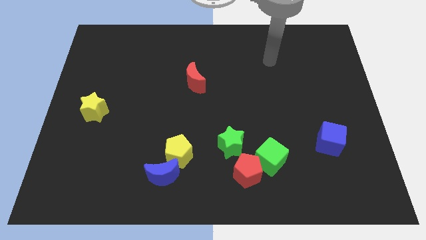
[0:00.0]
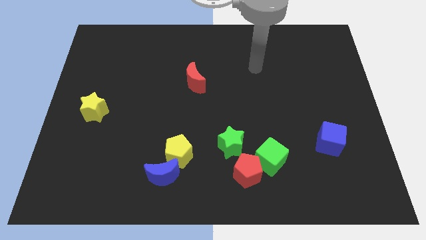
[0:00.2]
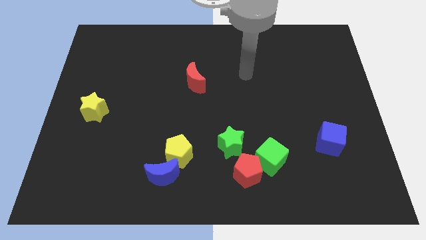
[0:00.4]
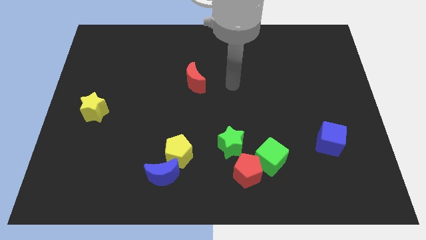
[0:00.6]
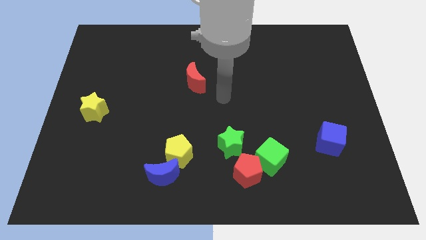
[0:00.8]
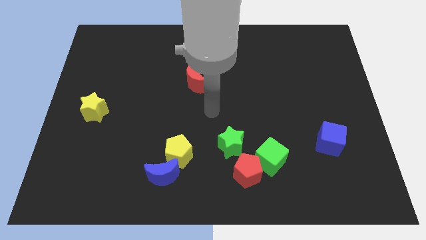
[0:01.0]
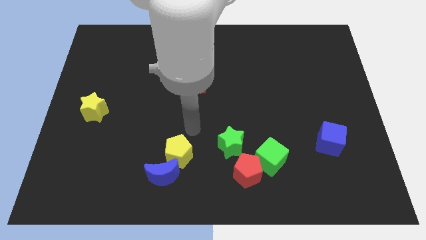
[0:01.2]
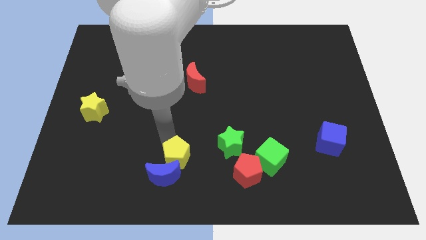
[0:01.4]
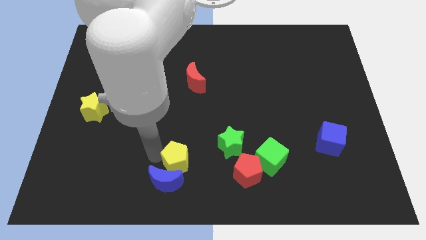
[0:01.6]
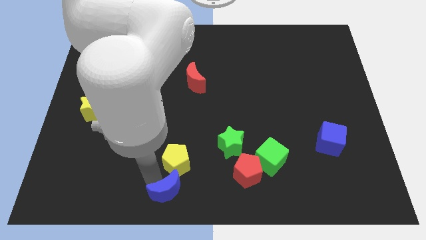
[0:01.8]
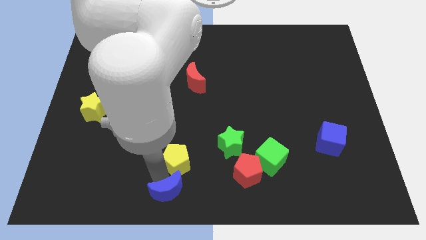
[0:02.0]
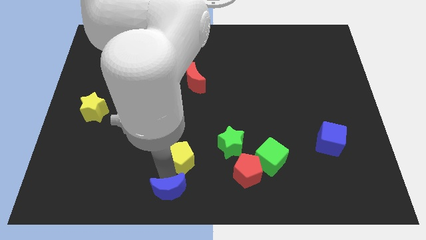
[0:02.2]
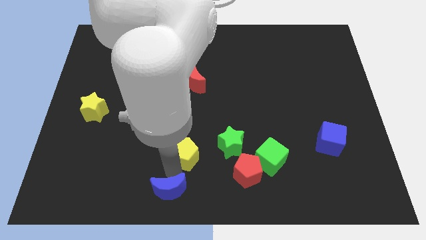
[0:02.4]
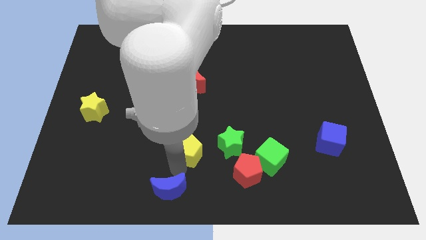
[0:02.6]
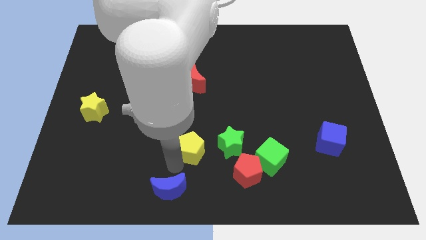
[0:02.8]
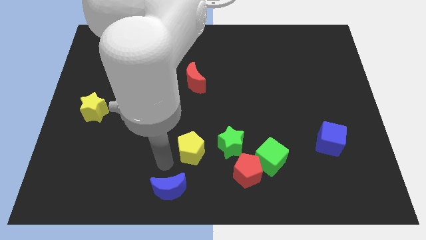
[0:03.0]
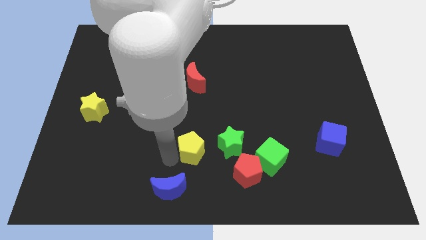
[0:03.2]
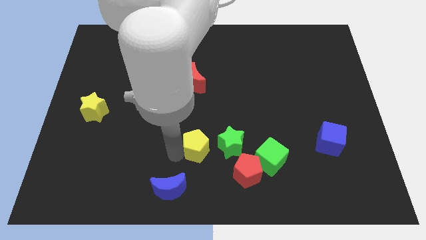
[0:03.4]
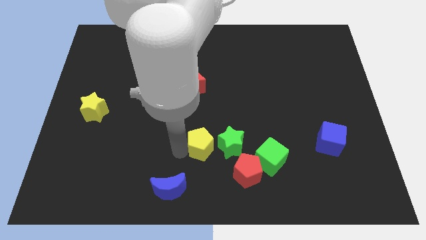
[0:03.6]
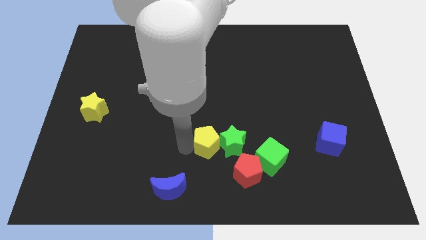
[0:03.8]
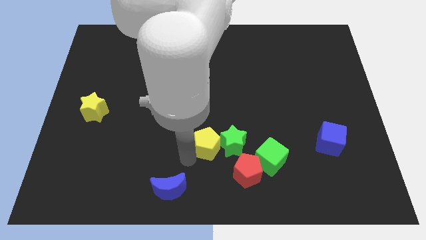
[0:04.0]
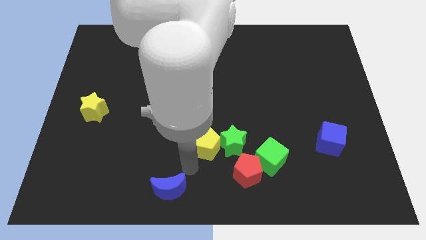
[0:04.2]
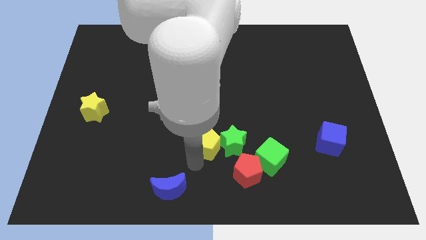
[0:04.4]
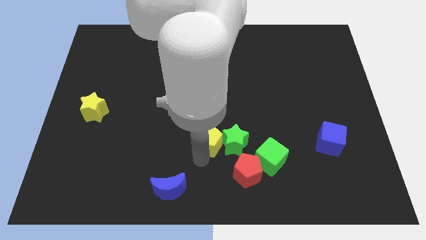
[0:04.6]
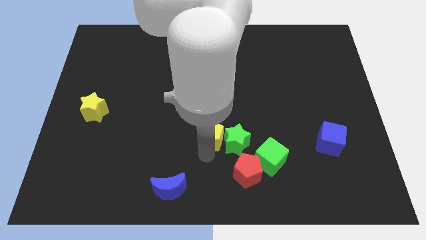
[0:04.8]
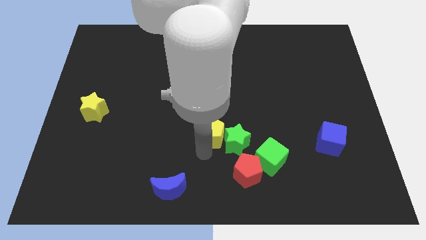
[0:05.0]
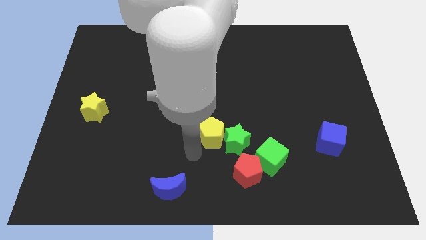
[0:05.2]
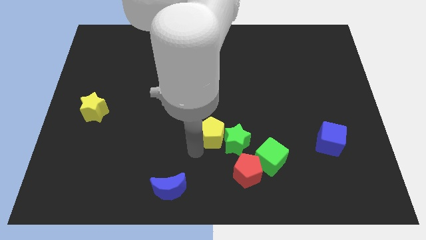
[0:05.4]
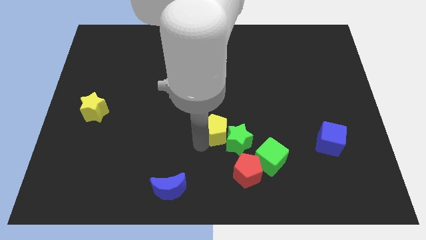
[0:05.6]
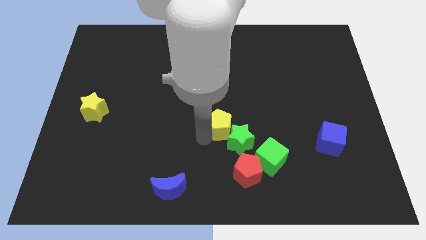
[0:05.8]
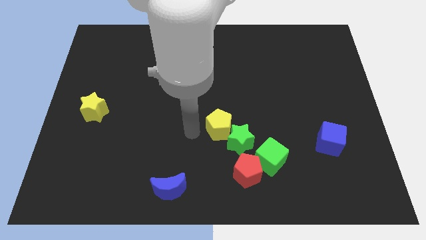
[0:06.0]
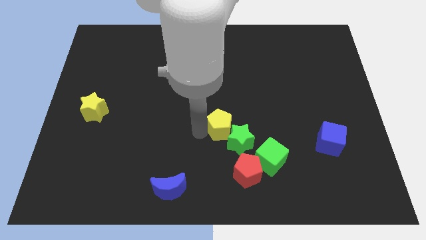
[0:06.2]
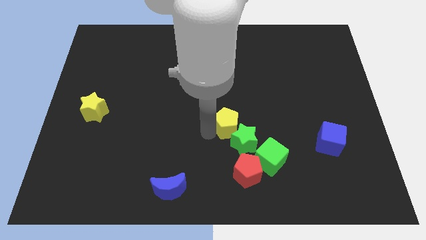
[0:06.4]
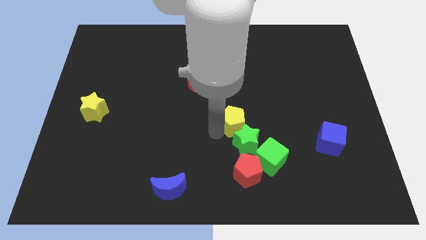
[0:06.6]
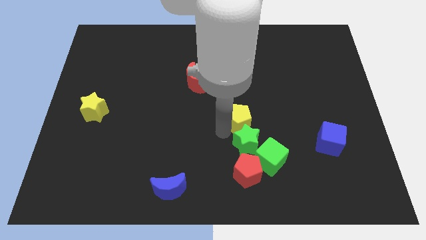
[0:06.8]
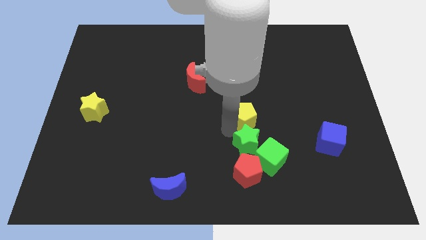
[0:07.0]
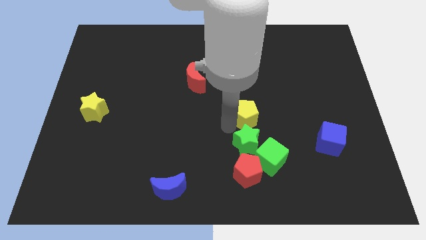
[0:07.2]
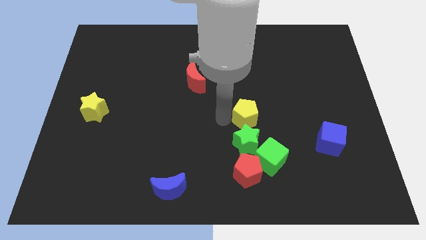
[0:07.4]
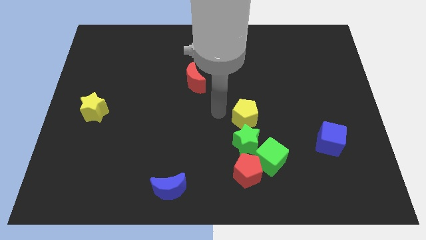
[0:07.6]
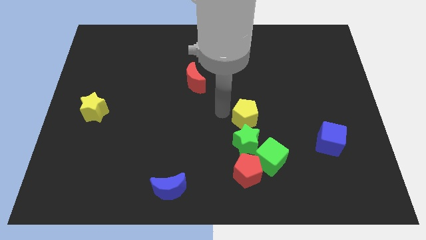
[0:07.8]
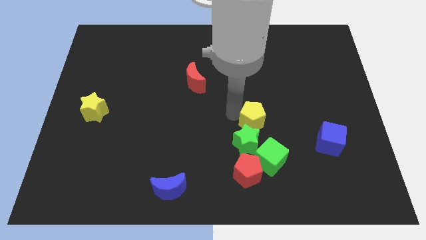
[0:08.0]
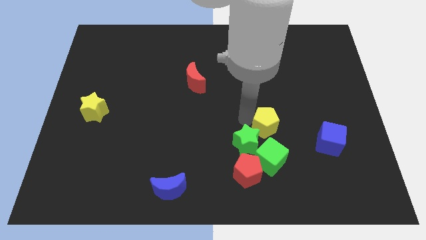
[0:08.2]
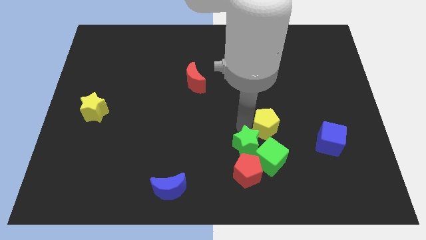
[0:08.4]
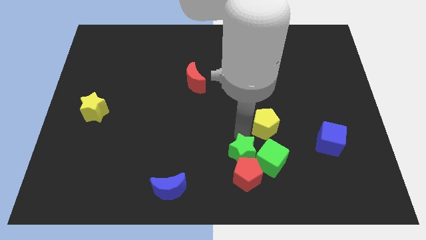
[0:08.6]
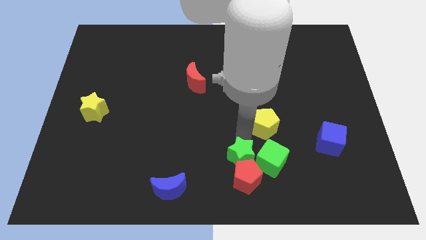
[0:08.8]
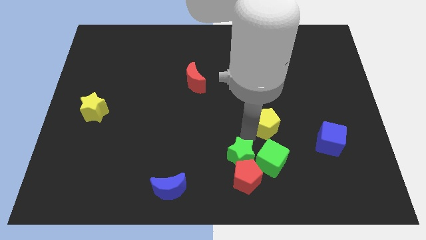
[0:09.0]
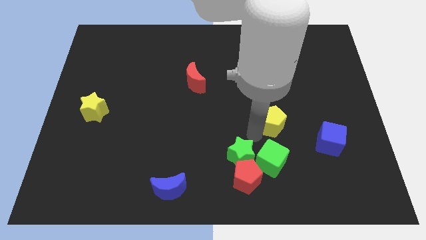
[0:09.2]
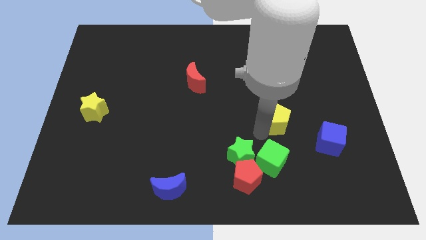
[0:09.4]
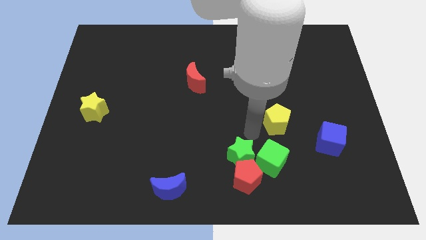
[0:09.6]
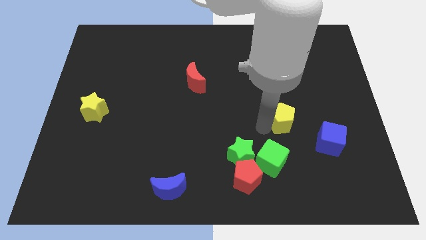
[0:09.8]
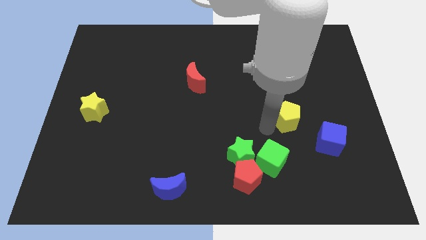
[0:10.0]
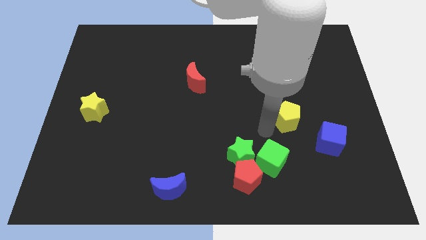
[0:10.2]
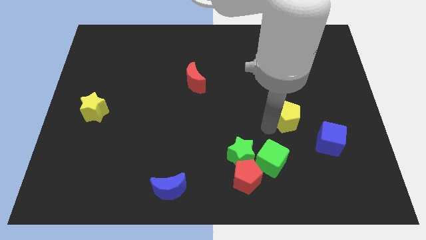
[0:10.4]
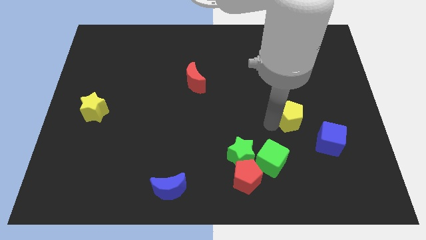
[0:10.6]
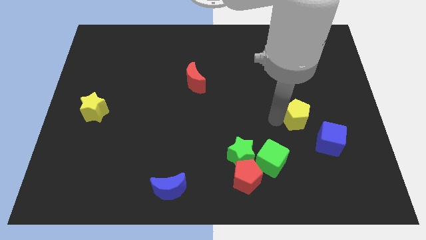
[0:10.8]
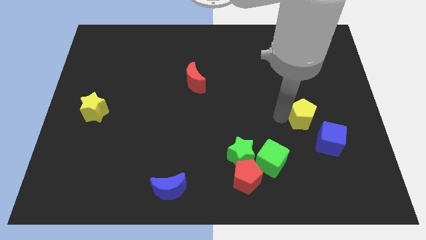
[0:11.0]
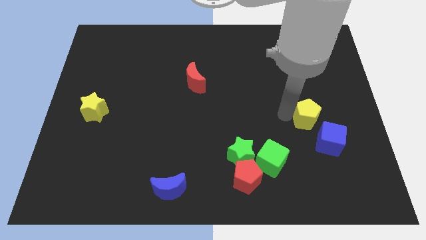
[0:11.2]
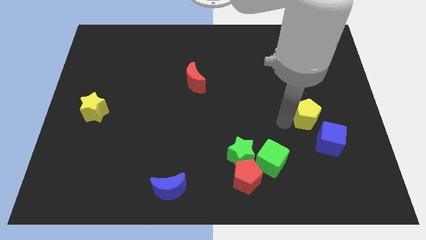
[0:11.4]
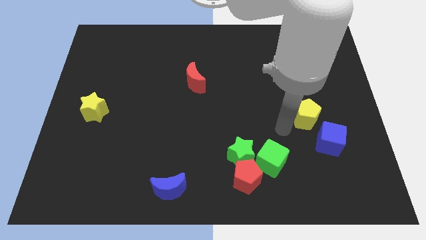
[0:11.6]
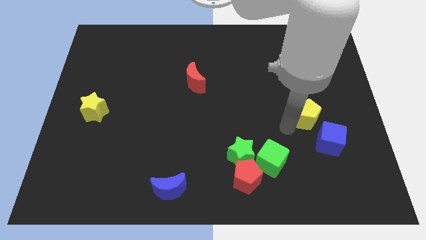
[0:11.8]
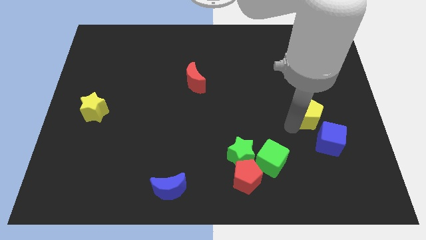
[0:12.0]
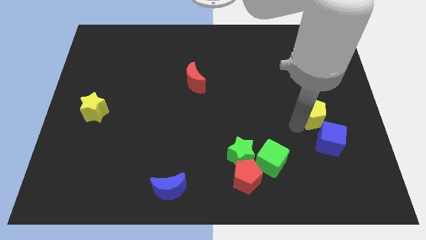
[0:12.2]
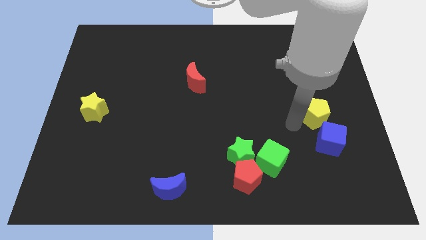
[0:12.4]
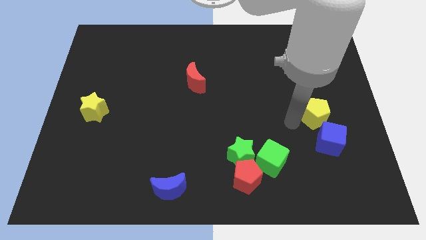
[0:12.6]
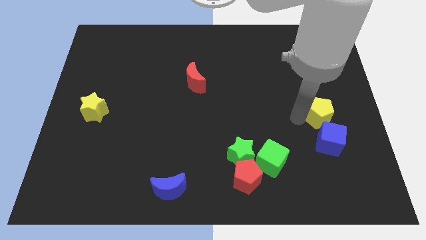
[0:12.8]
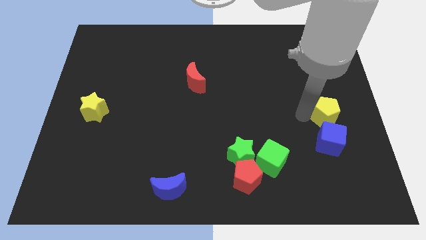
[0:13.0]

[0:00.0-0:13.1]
push the yellow pentagon to the right side of the board
